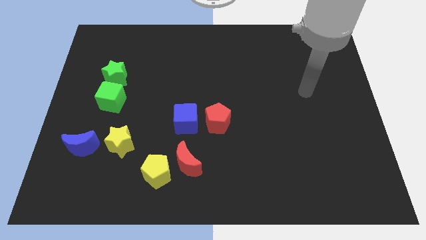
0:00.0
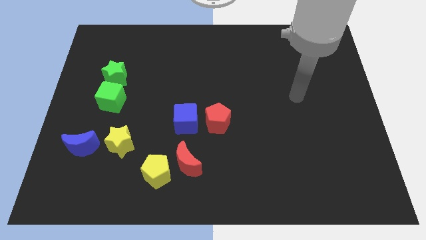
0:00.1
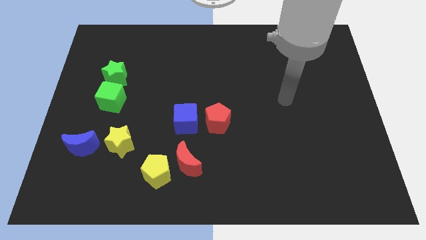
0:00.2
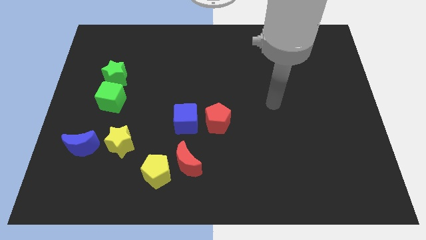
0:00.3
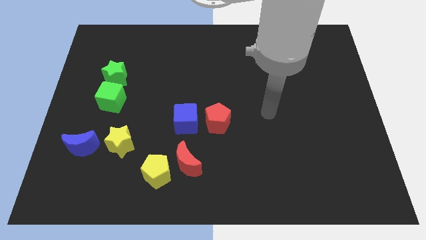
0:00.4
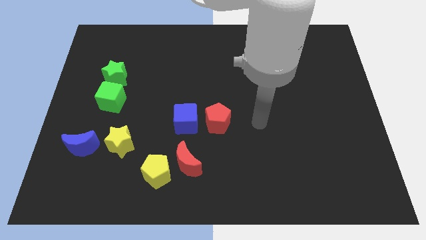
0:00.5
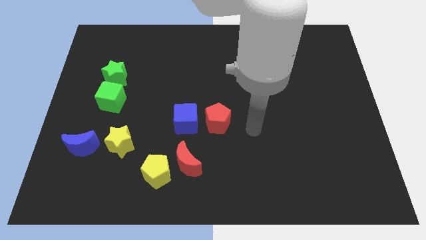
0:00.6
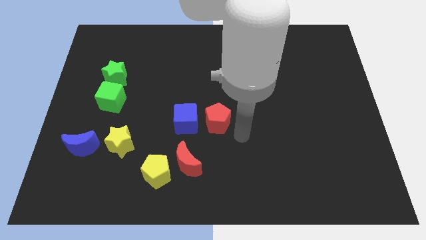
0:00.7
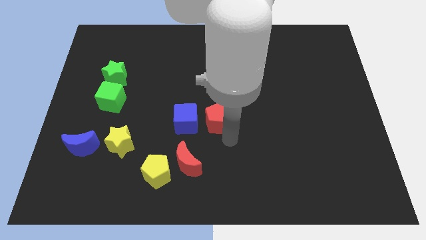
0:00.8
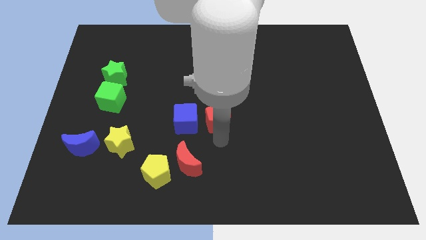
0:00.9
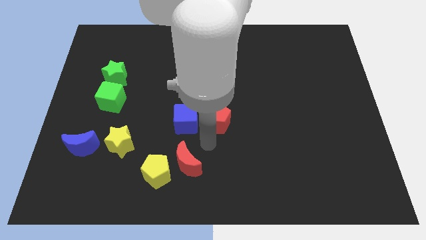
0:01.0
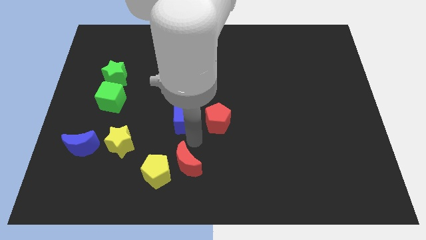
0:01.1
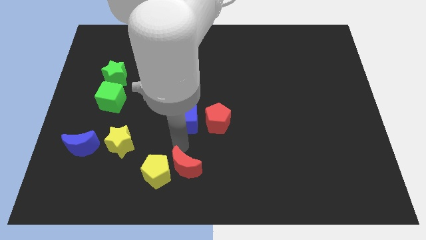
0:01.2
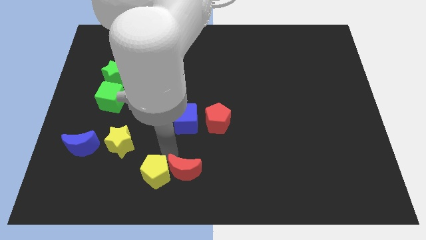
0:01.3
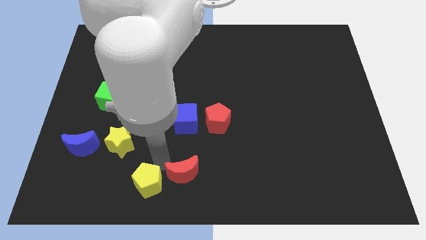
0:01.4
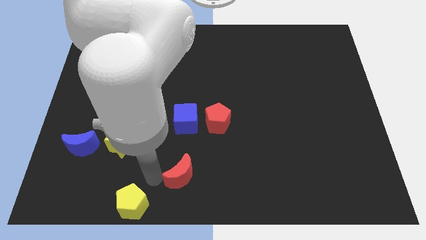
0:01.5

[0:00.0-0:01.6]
move the red moon away from the yellow pentagon

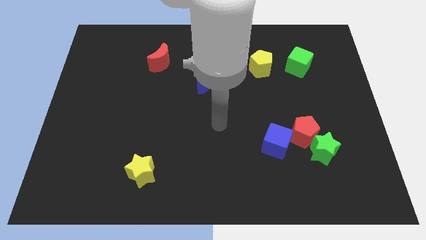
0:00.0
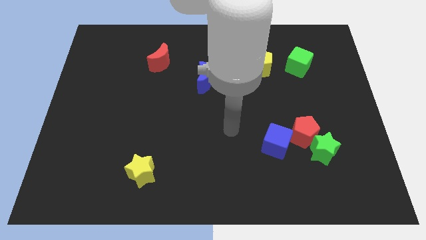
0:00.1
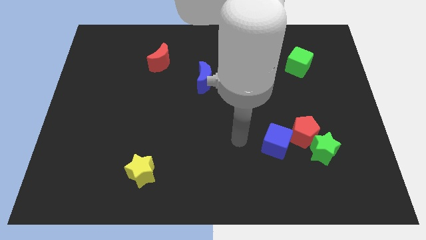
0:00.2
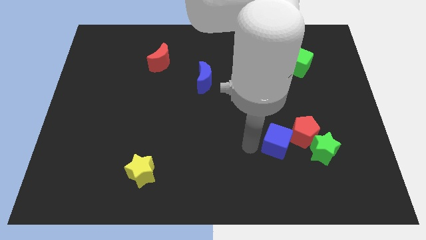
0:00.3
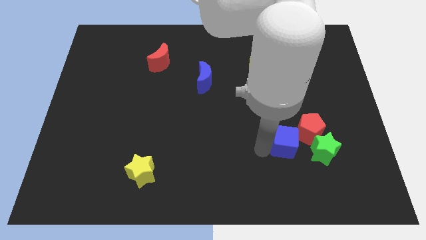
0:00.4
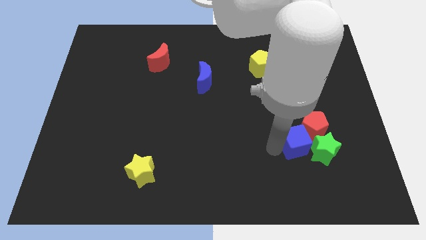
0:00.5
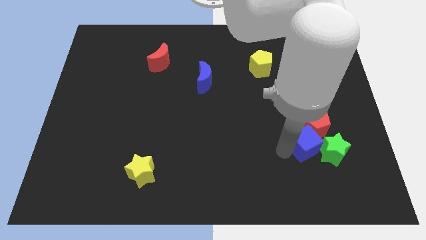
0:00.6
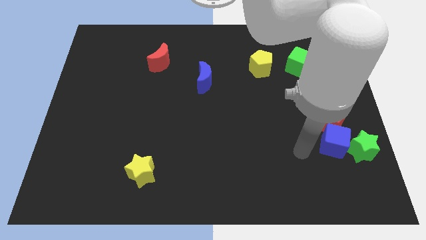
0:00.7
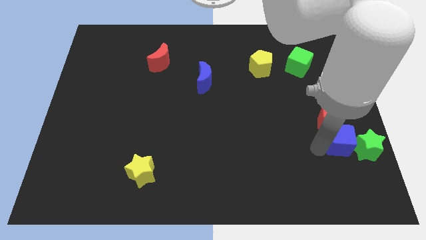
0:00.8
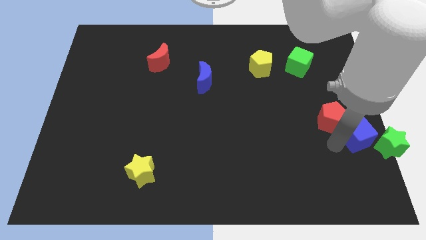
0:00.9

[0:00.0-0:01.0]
move the red pentagon away from the green star and blue cube

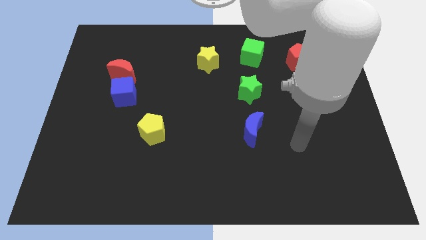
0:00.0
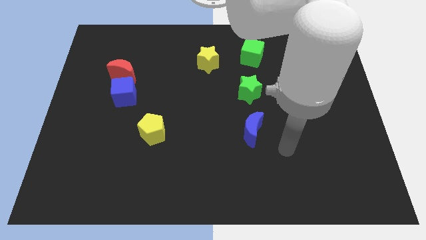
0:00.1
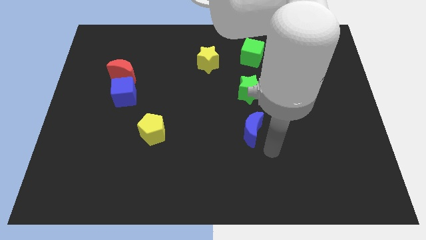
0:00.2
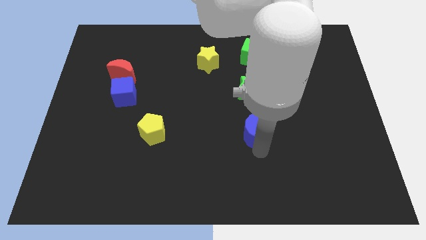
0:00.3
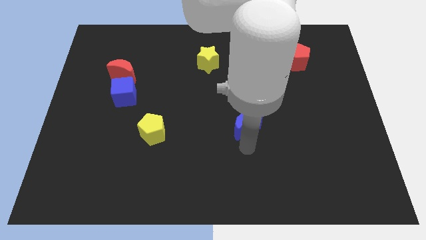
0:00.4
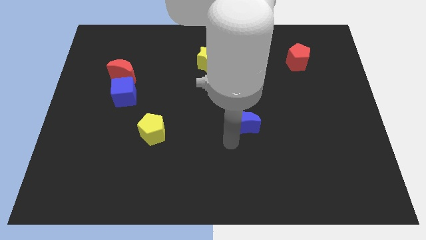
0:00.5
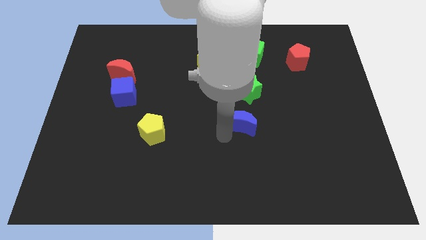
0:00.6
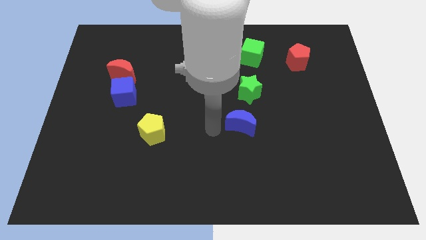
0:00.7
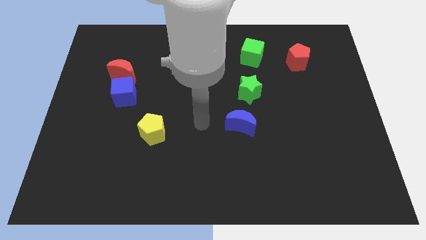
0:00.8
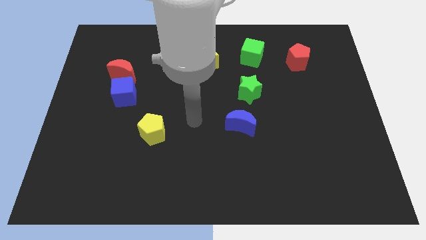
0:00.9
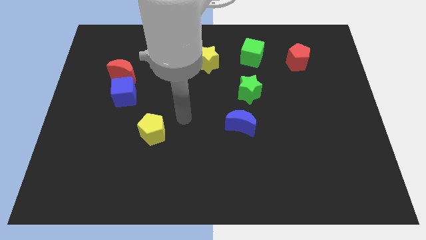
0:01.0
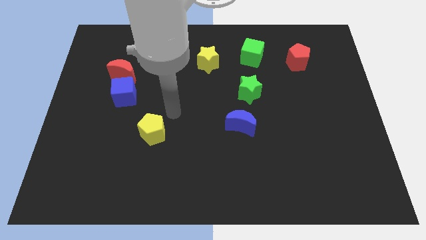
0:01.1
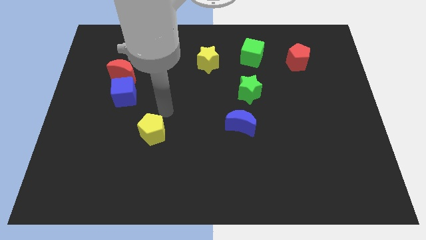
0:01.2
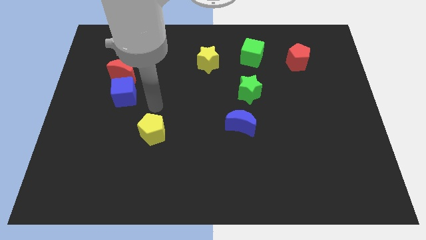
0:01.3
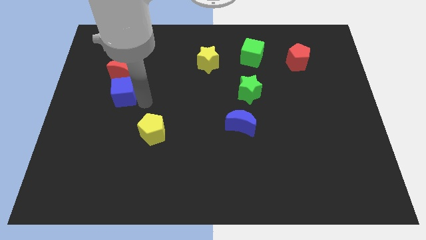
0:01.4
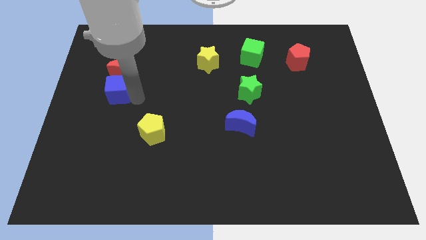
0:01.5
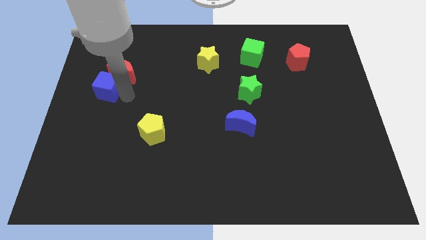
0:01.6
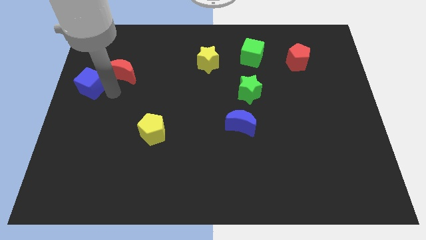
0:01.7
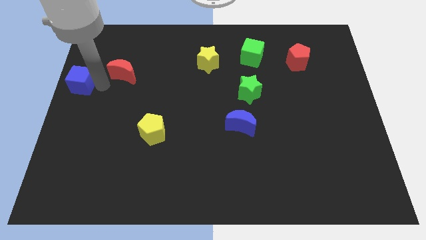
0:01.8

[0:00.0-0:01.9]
separate the red moon from the blue cube

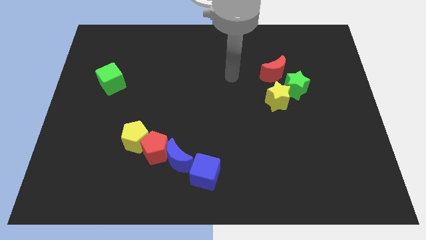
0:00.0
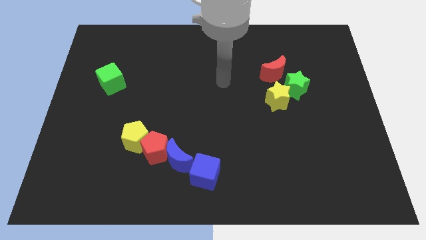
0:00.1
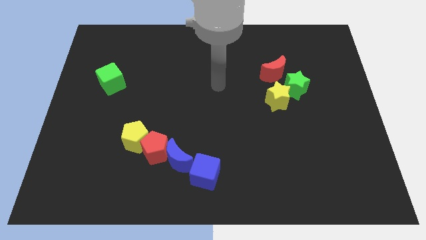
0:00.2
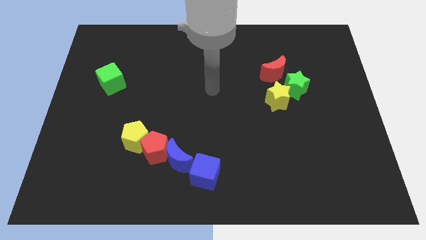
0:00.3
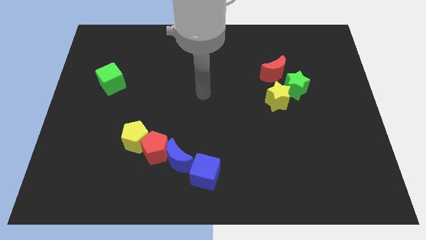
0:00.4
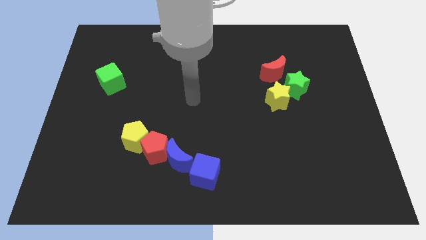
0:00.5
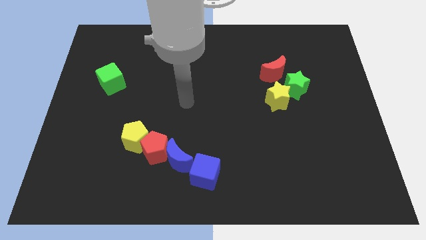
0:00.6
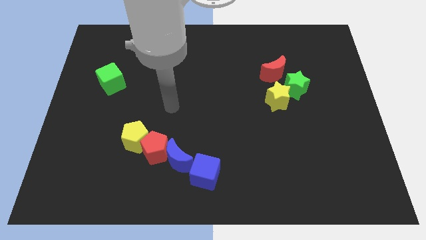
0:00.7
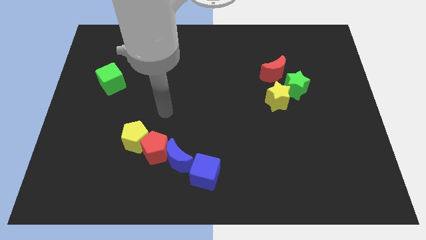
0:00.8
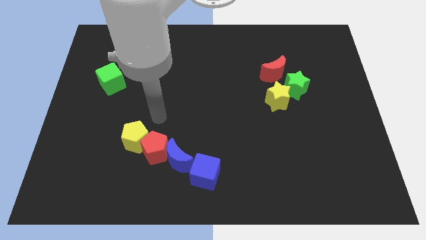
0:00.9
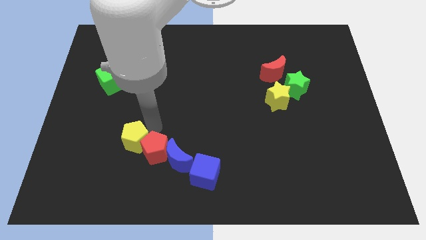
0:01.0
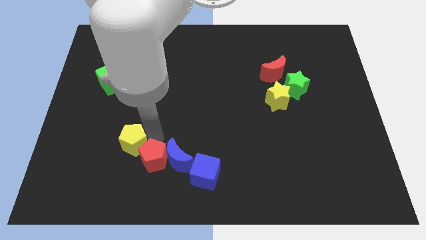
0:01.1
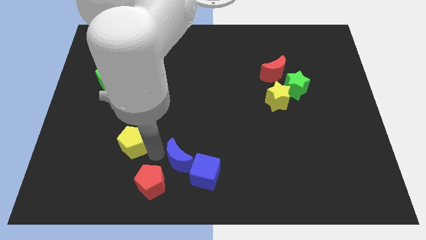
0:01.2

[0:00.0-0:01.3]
pull the yellow pentagon apart from the red pentagon

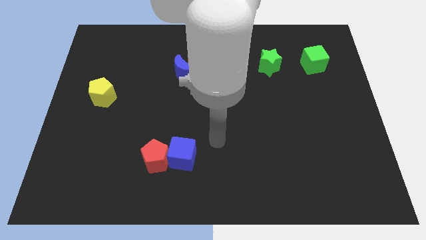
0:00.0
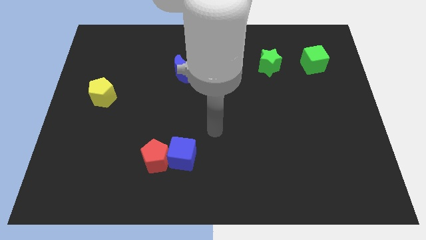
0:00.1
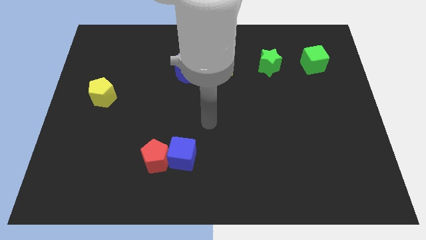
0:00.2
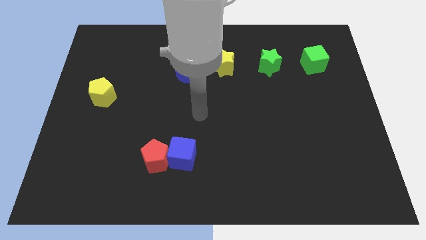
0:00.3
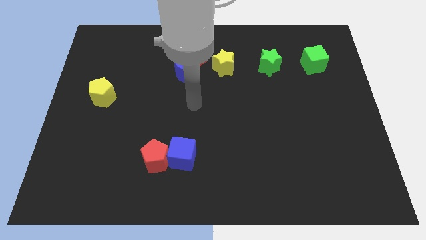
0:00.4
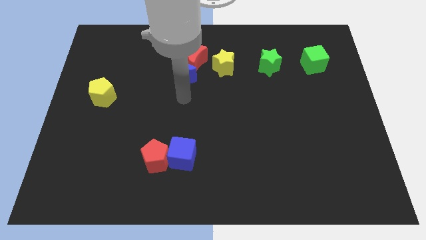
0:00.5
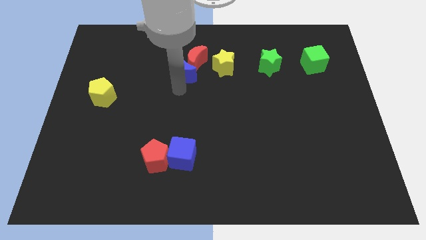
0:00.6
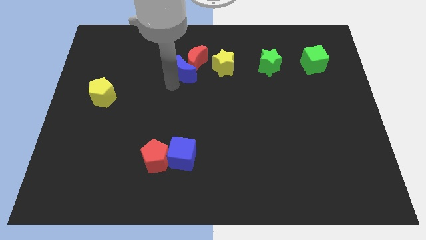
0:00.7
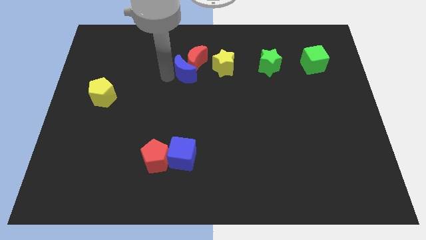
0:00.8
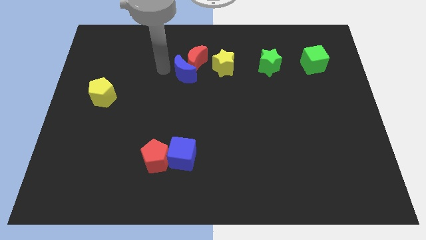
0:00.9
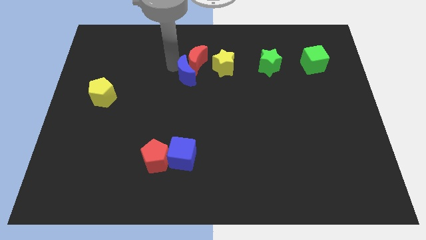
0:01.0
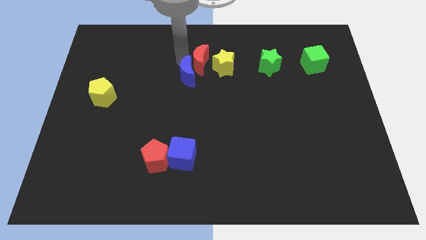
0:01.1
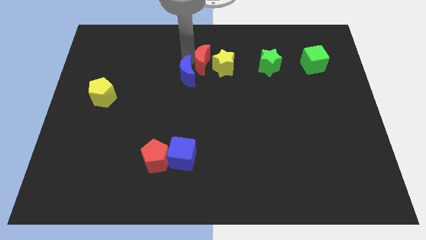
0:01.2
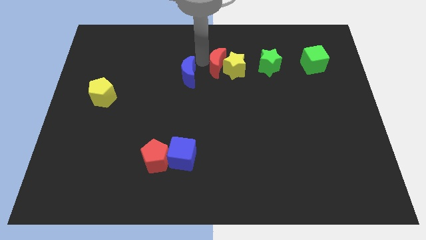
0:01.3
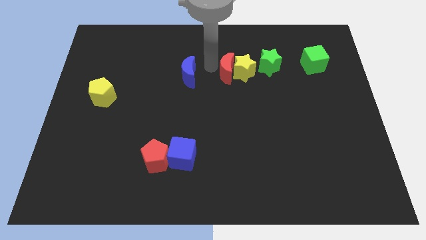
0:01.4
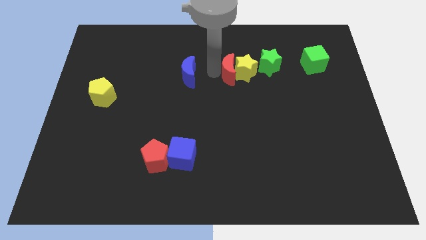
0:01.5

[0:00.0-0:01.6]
move the blue moon away from the red moon

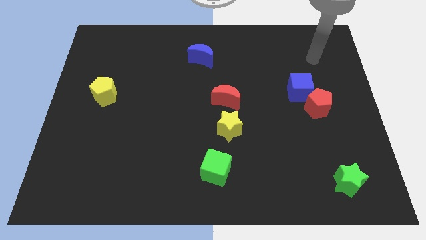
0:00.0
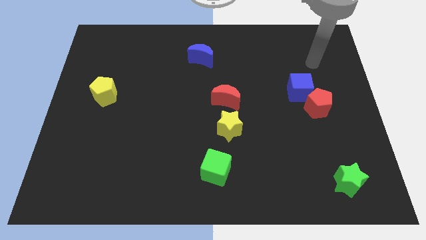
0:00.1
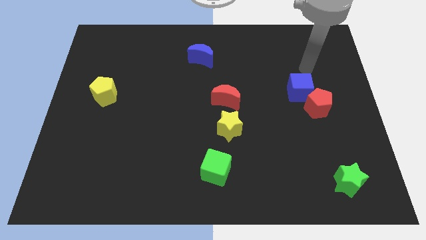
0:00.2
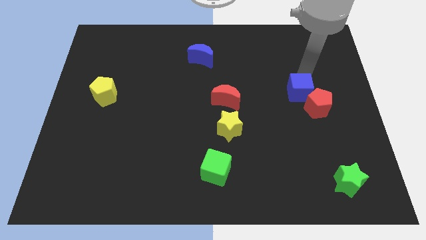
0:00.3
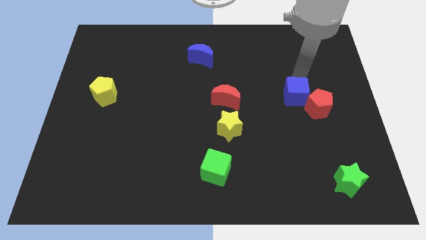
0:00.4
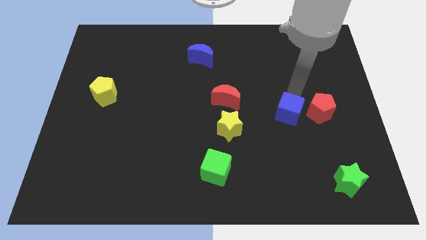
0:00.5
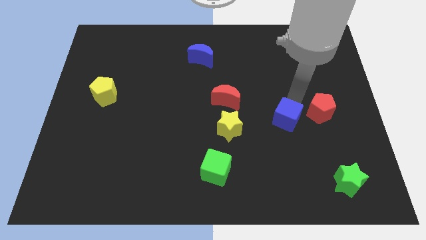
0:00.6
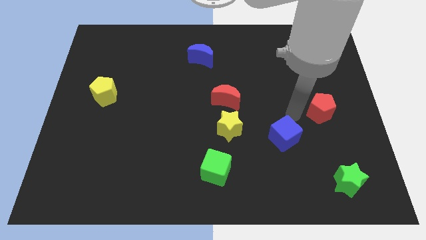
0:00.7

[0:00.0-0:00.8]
move the red pentagon away from the blue cube

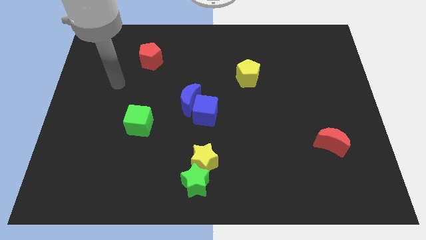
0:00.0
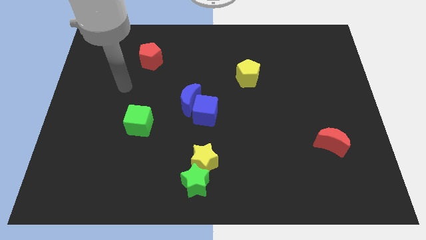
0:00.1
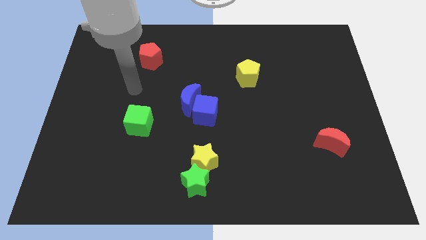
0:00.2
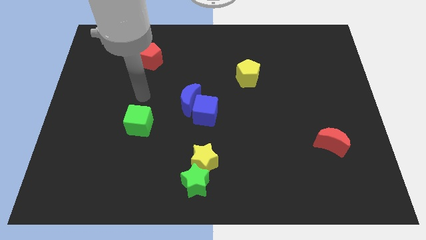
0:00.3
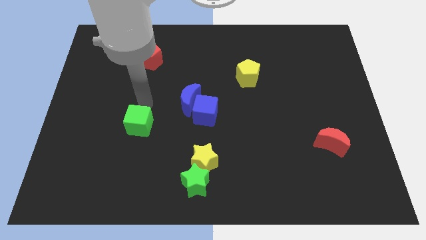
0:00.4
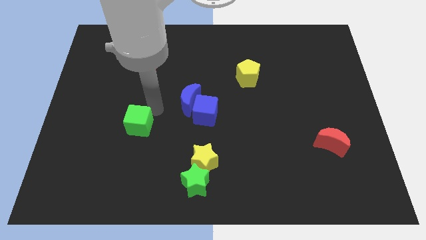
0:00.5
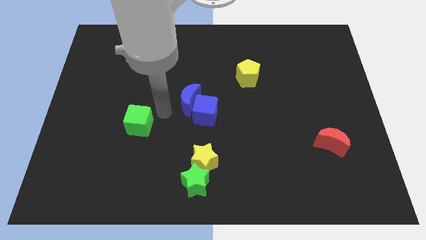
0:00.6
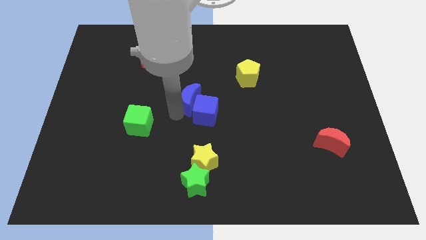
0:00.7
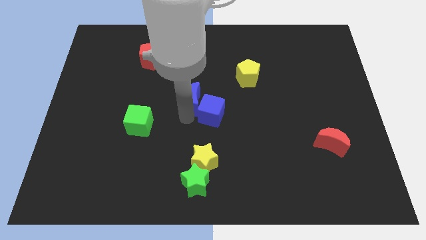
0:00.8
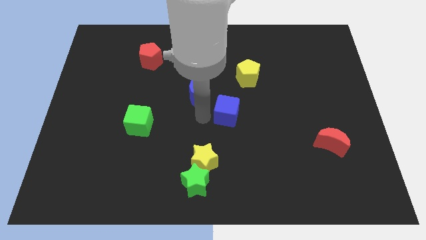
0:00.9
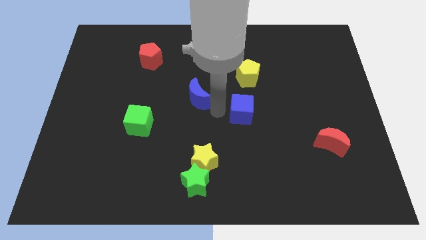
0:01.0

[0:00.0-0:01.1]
move the blue moon away from the blue cube
